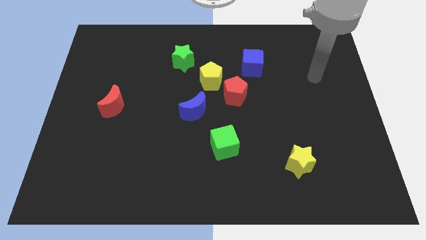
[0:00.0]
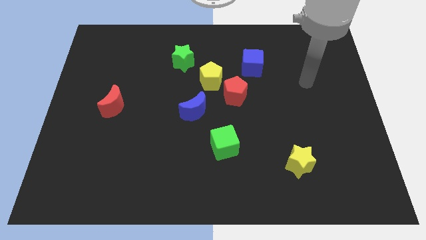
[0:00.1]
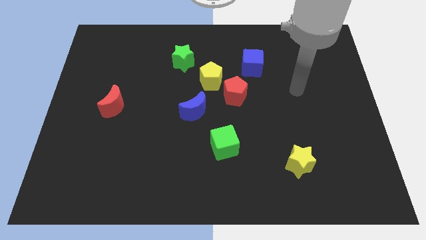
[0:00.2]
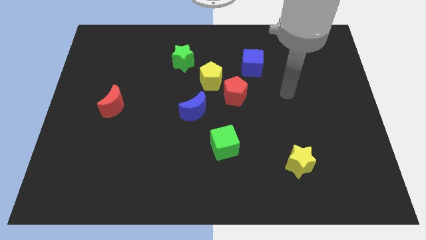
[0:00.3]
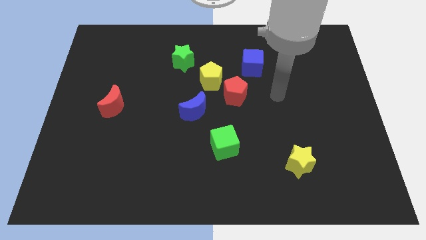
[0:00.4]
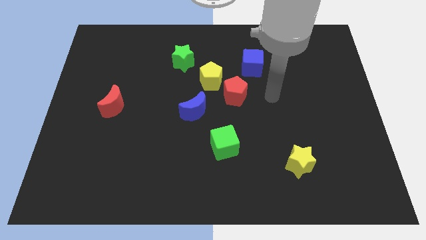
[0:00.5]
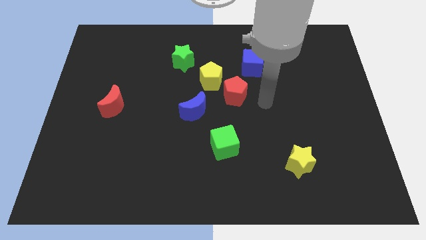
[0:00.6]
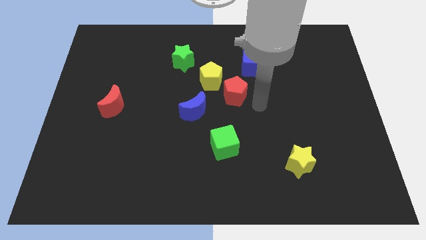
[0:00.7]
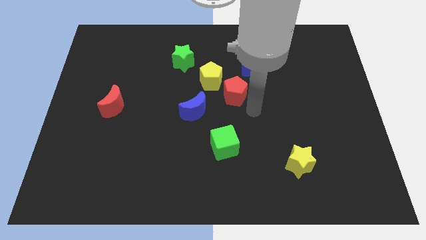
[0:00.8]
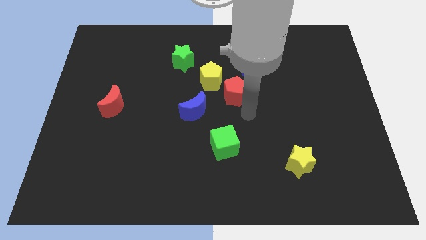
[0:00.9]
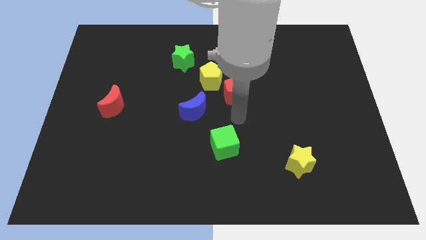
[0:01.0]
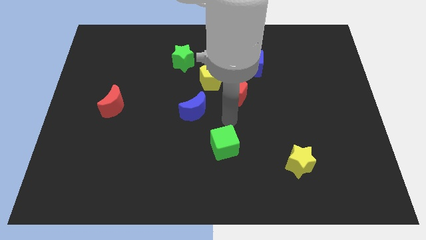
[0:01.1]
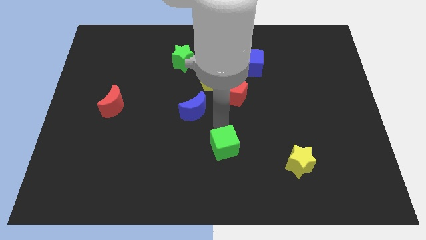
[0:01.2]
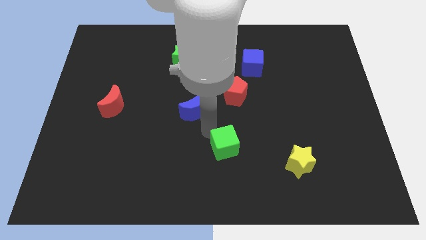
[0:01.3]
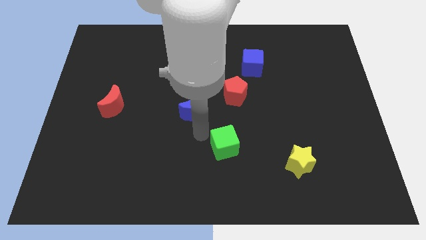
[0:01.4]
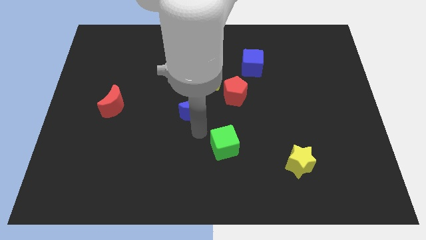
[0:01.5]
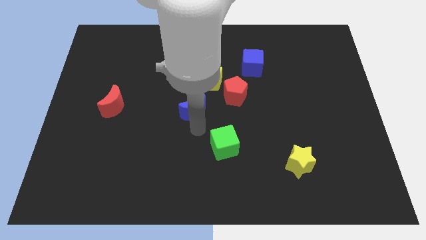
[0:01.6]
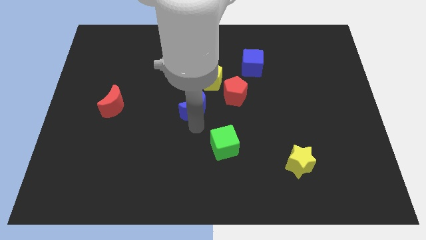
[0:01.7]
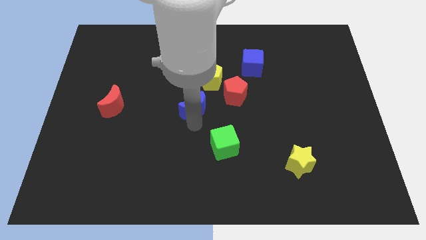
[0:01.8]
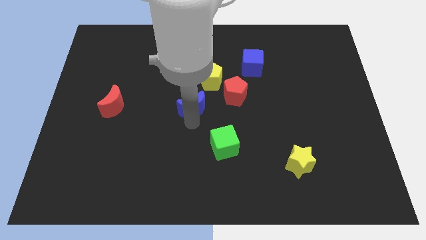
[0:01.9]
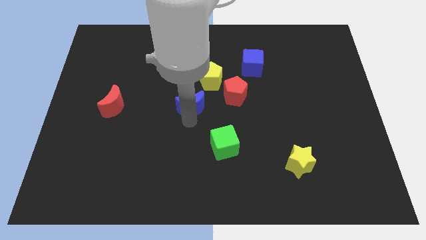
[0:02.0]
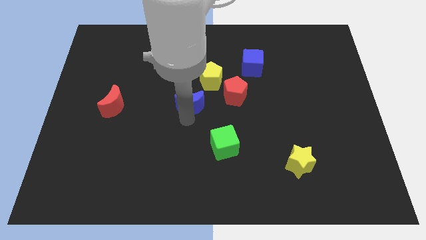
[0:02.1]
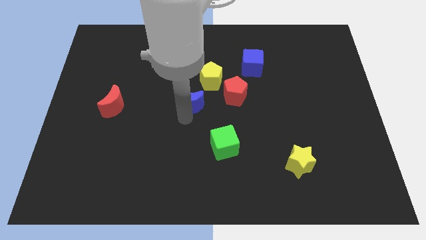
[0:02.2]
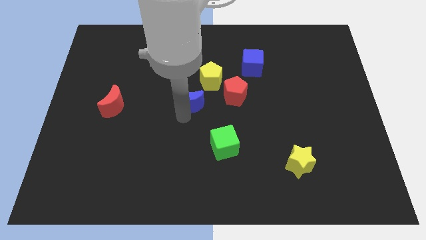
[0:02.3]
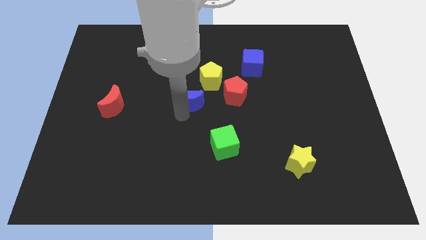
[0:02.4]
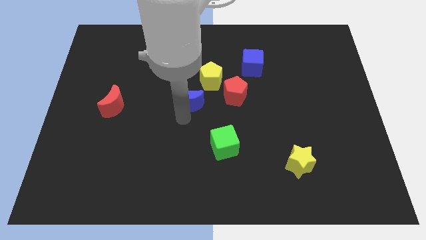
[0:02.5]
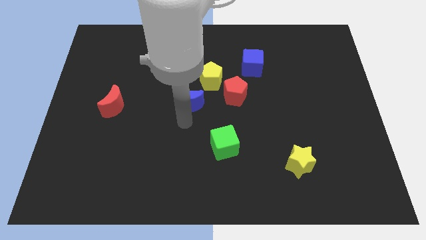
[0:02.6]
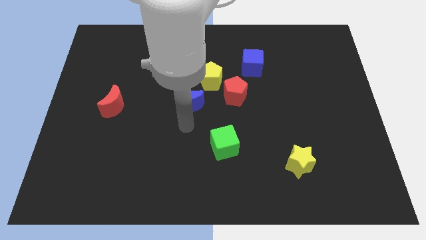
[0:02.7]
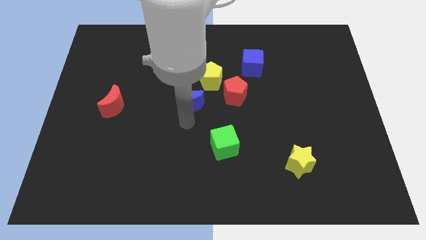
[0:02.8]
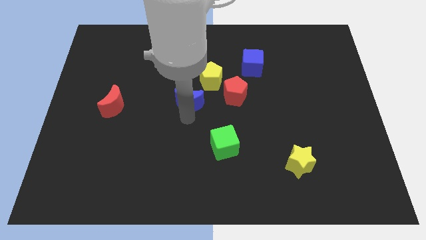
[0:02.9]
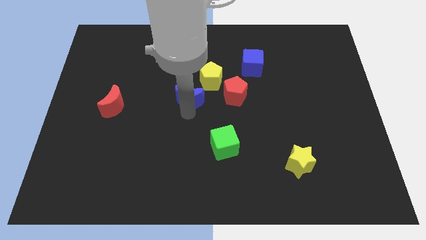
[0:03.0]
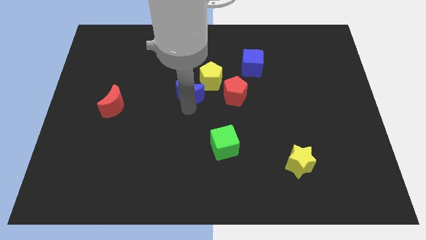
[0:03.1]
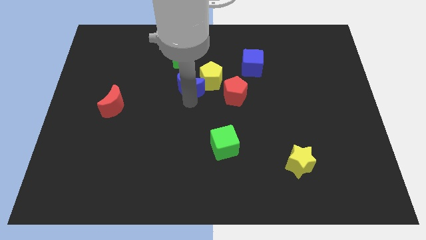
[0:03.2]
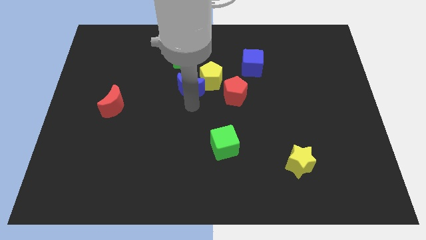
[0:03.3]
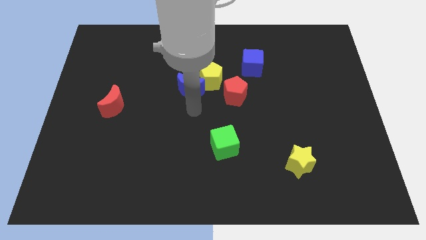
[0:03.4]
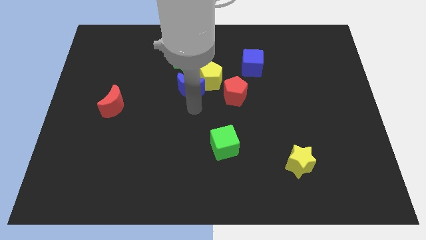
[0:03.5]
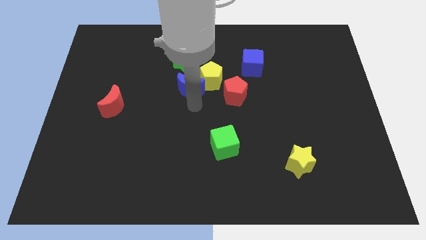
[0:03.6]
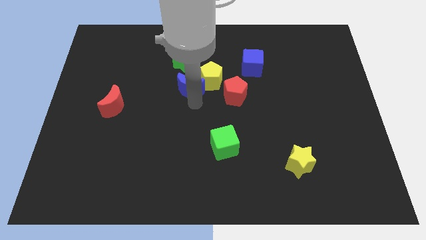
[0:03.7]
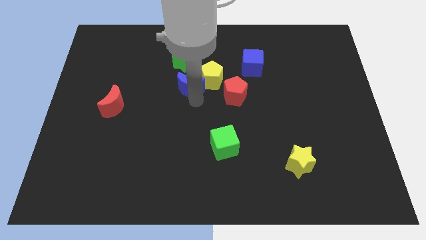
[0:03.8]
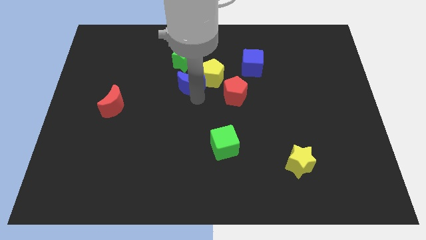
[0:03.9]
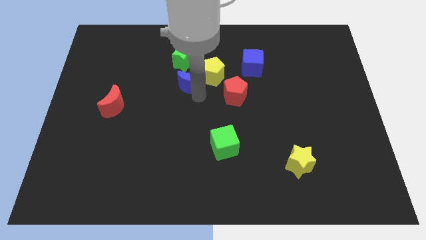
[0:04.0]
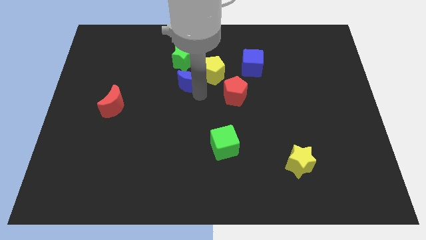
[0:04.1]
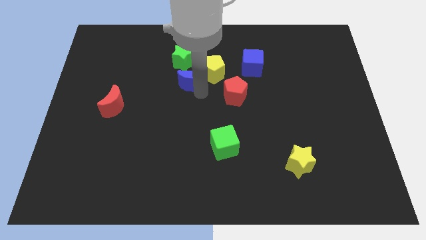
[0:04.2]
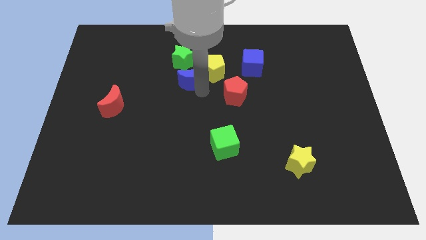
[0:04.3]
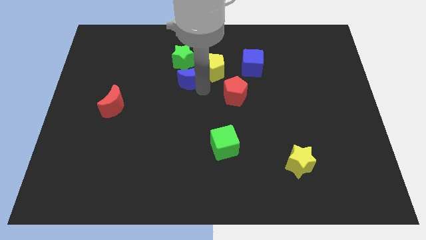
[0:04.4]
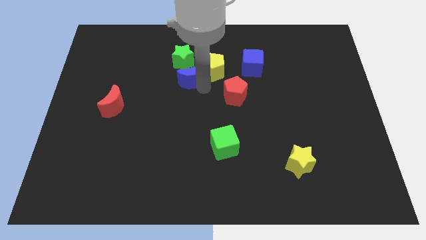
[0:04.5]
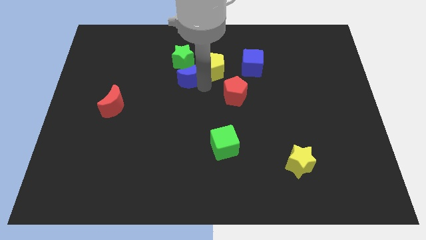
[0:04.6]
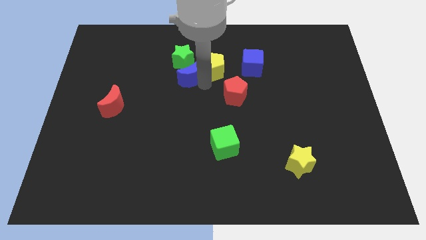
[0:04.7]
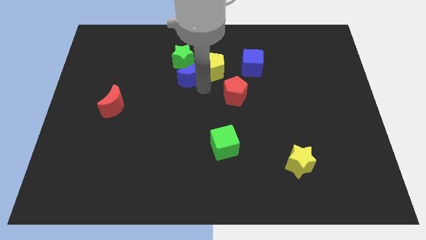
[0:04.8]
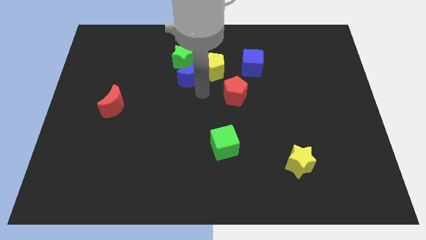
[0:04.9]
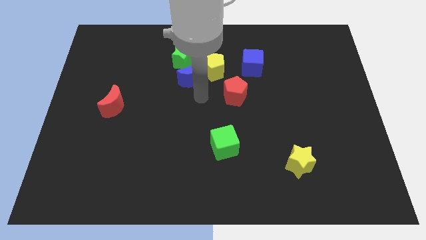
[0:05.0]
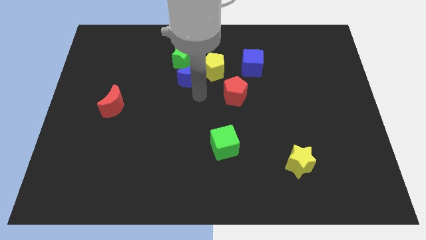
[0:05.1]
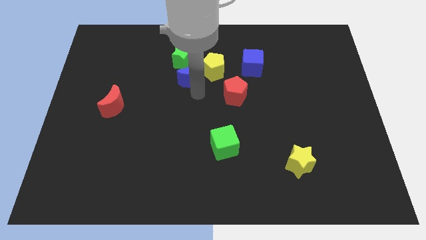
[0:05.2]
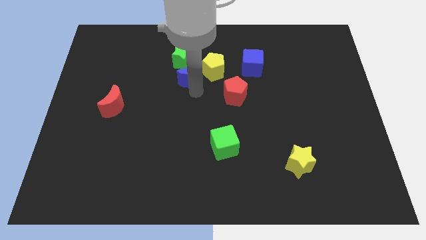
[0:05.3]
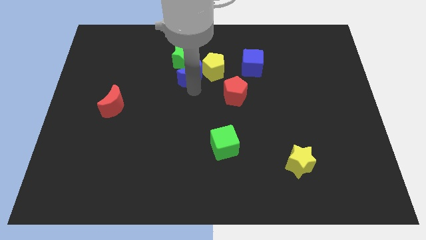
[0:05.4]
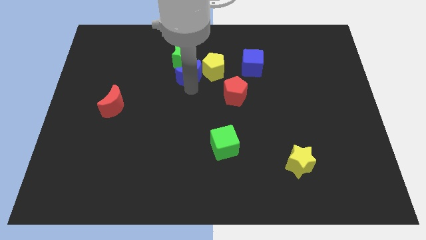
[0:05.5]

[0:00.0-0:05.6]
push the blue moon towards the green star

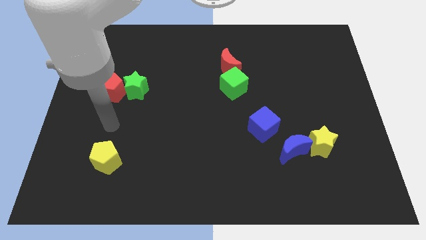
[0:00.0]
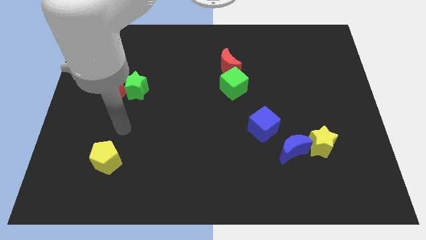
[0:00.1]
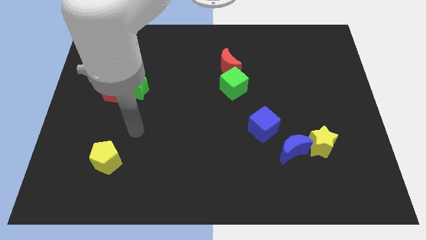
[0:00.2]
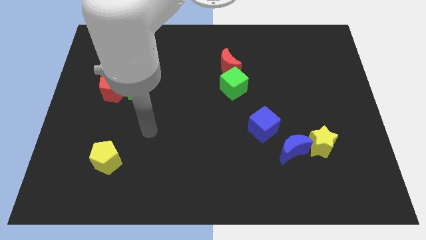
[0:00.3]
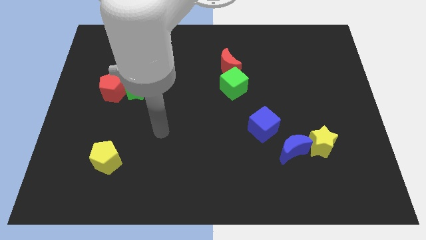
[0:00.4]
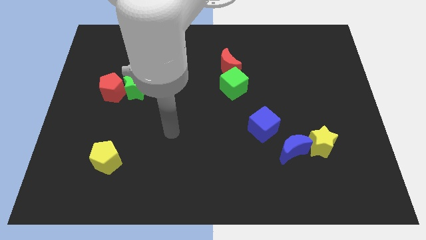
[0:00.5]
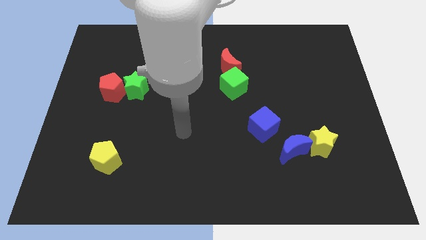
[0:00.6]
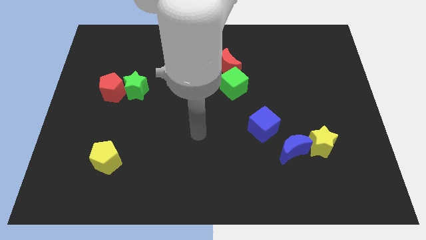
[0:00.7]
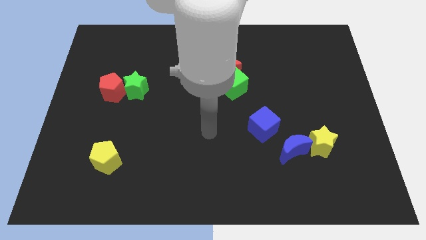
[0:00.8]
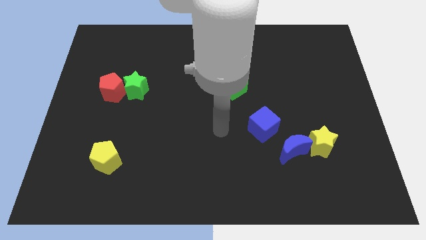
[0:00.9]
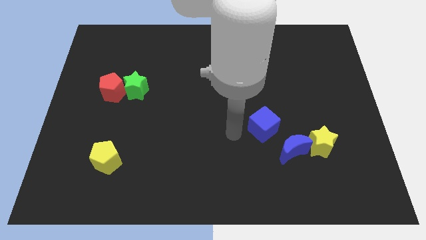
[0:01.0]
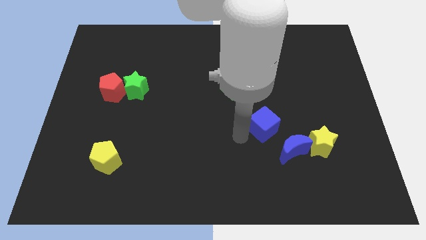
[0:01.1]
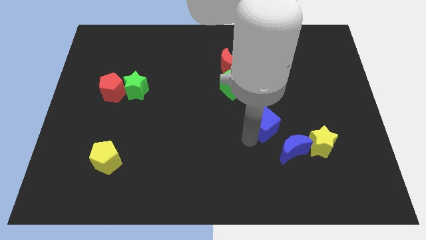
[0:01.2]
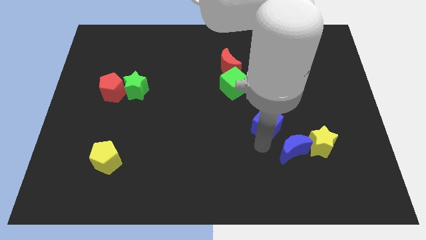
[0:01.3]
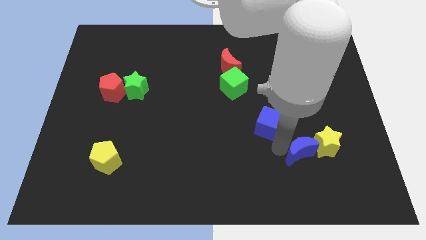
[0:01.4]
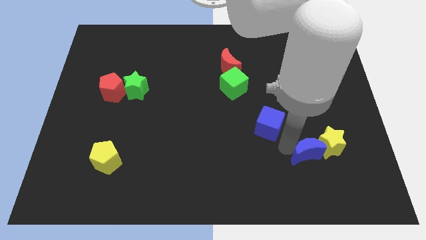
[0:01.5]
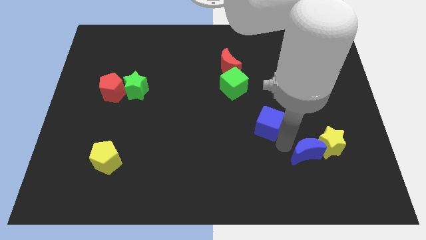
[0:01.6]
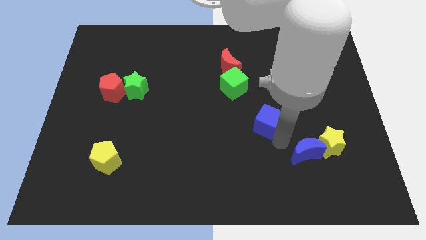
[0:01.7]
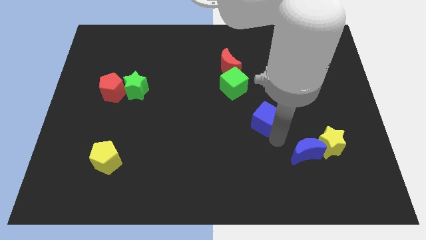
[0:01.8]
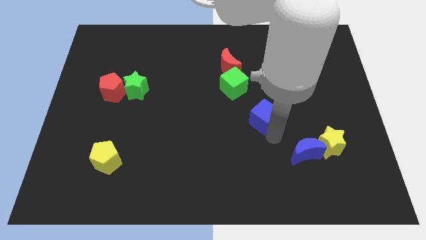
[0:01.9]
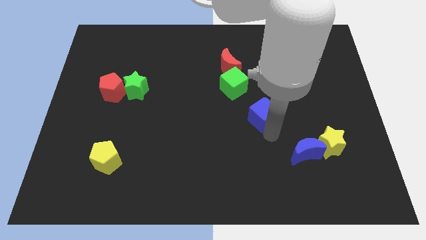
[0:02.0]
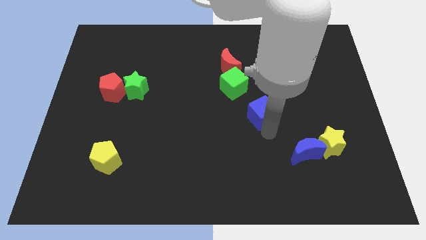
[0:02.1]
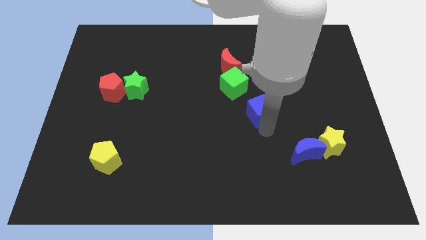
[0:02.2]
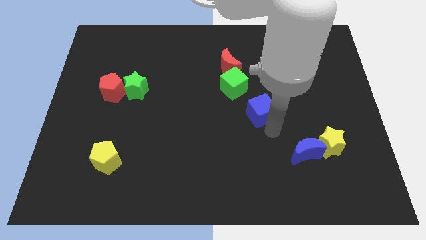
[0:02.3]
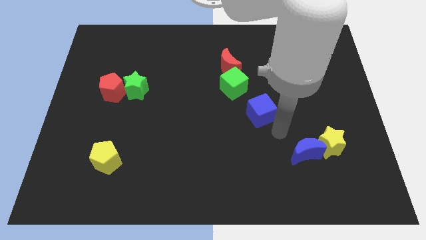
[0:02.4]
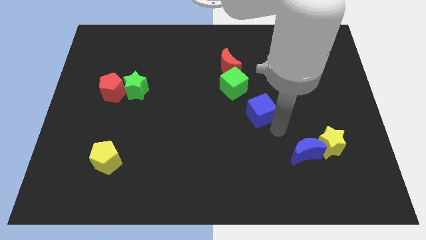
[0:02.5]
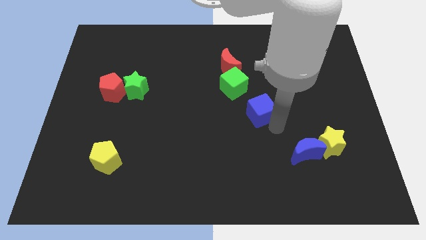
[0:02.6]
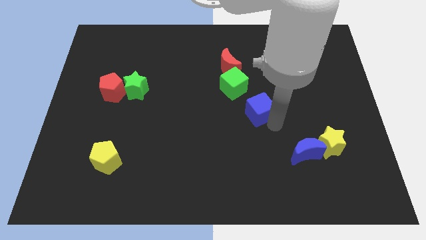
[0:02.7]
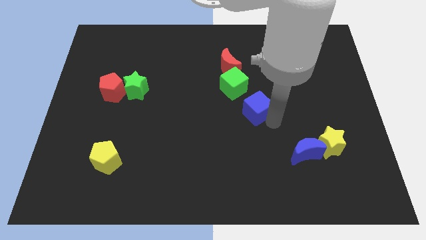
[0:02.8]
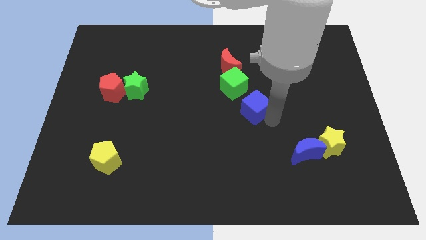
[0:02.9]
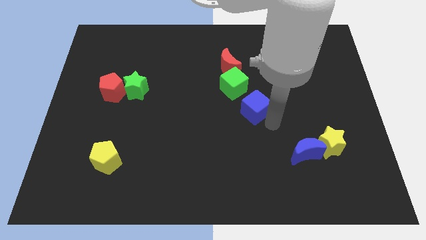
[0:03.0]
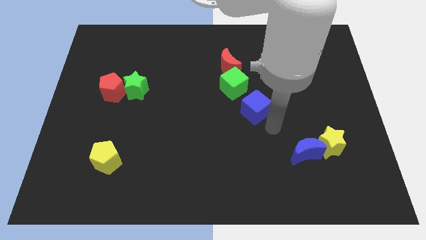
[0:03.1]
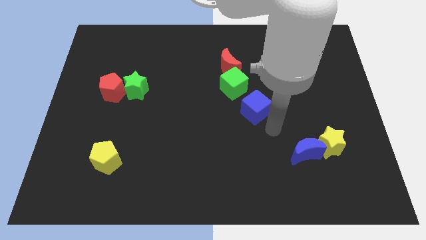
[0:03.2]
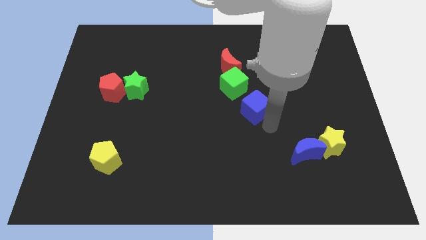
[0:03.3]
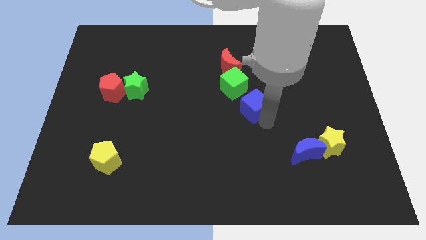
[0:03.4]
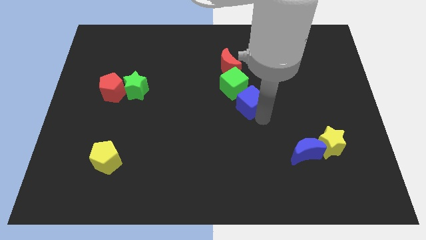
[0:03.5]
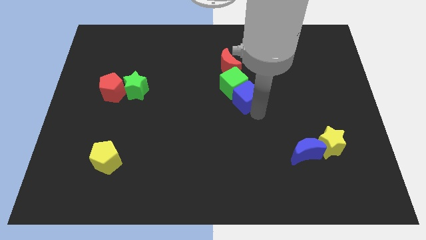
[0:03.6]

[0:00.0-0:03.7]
push the blue cube to the green cube
